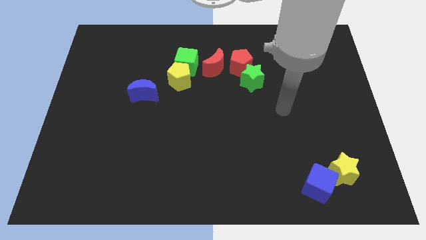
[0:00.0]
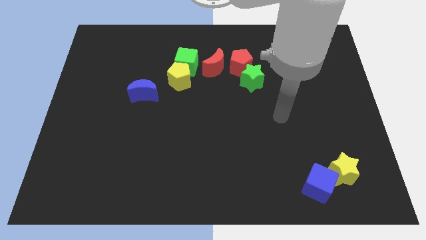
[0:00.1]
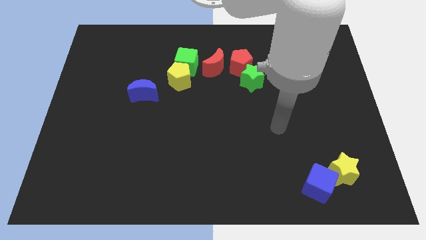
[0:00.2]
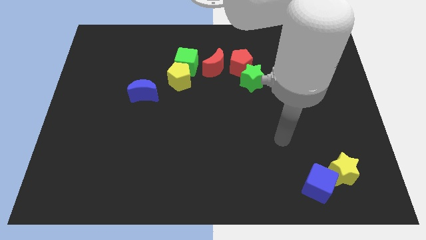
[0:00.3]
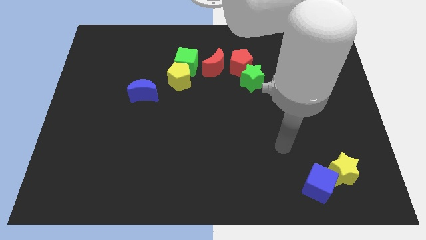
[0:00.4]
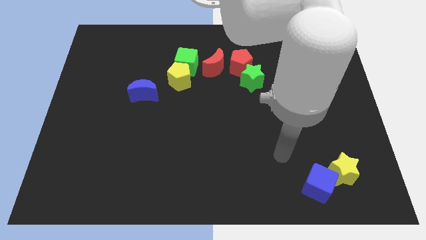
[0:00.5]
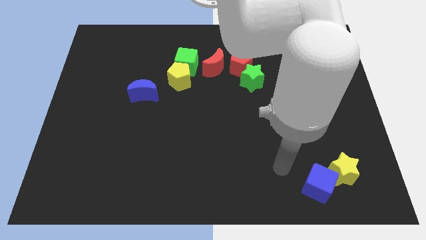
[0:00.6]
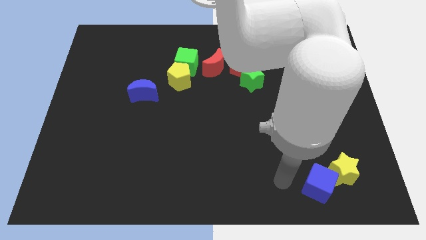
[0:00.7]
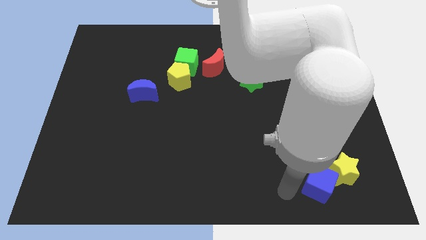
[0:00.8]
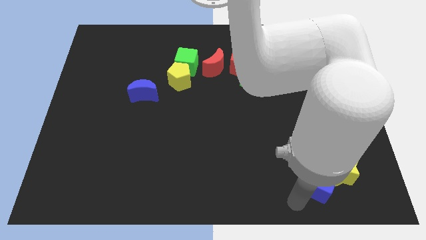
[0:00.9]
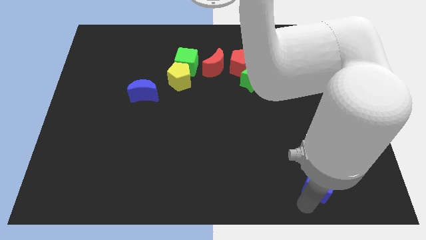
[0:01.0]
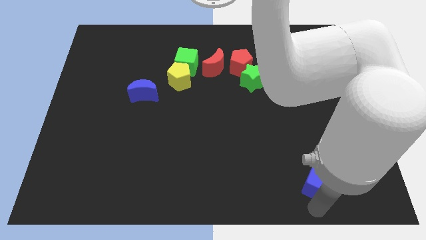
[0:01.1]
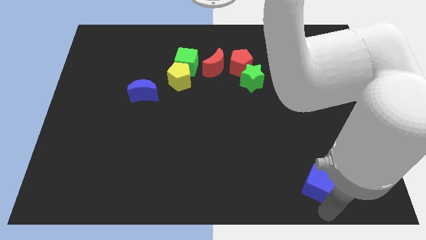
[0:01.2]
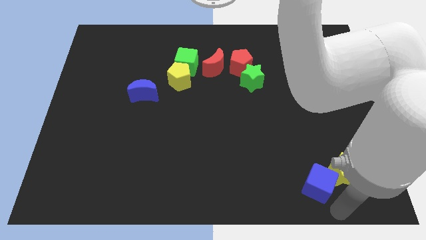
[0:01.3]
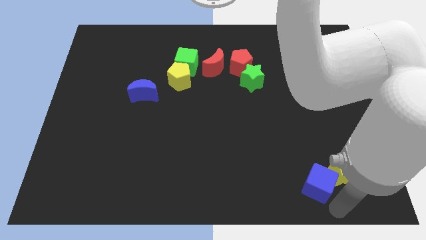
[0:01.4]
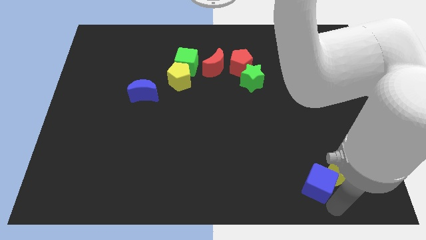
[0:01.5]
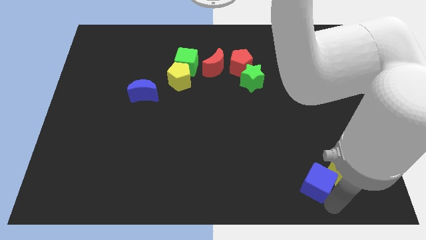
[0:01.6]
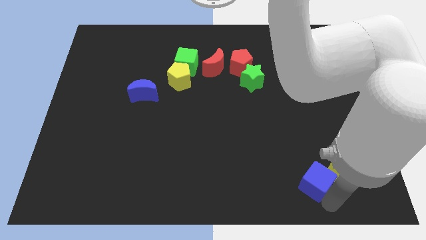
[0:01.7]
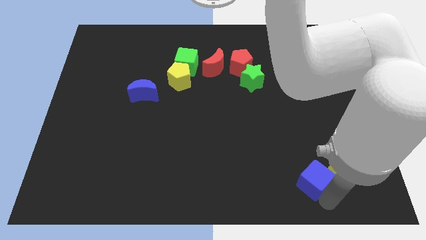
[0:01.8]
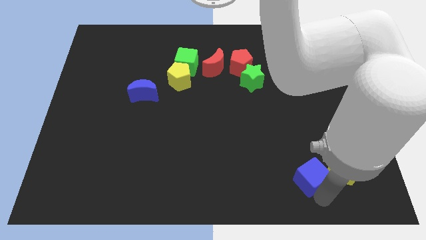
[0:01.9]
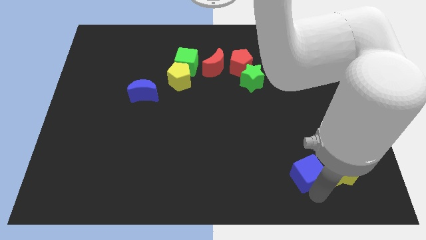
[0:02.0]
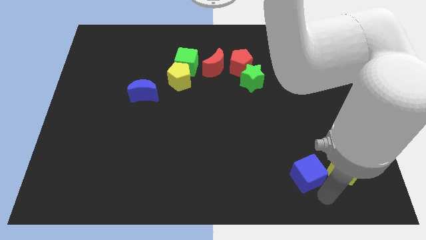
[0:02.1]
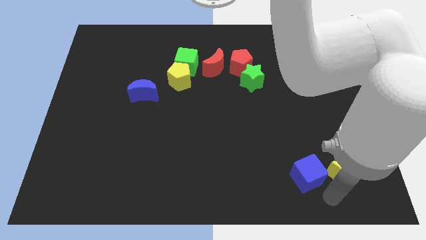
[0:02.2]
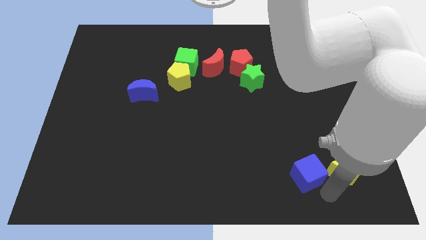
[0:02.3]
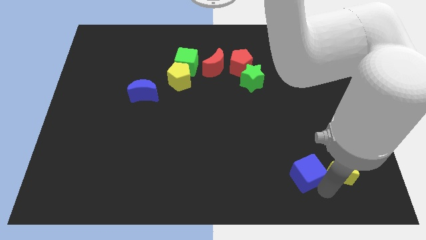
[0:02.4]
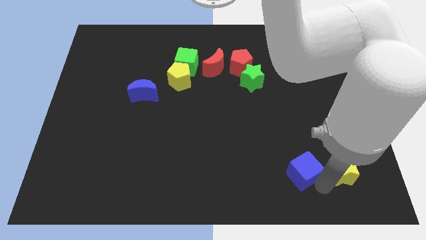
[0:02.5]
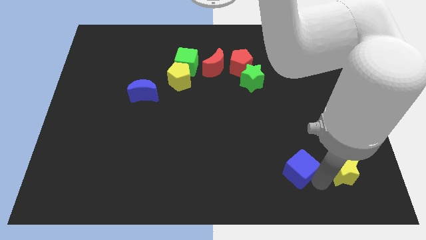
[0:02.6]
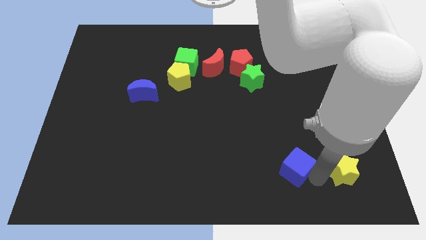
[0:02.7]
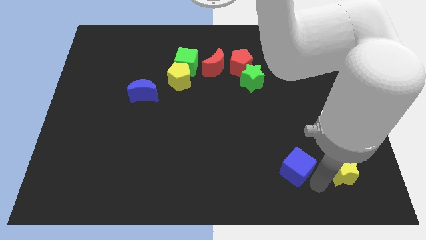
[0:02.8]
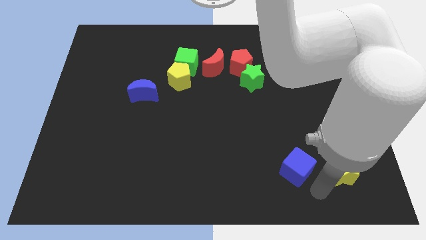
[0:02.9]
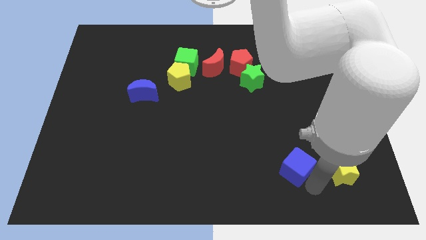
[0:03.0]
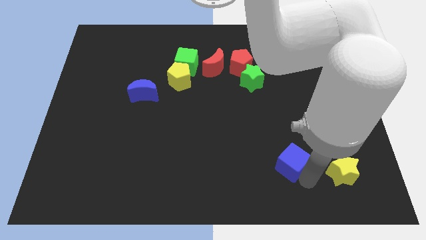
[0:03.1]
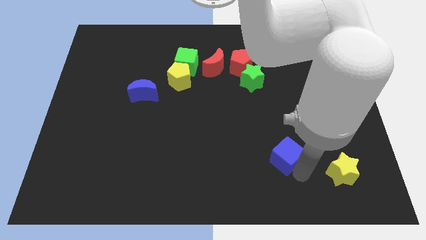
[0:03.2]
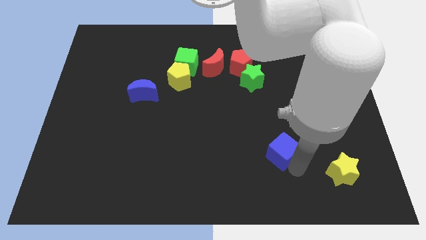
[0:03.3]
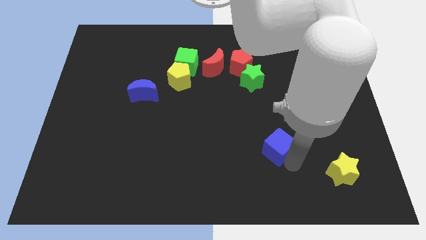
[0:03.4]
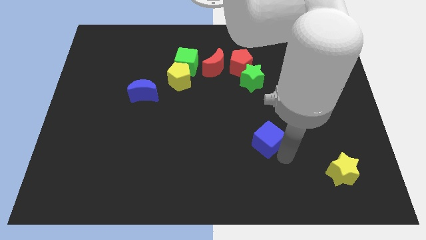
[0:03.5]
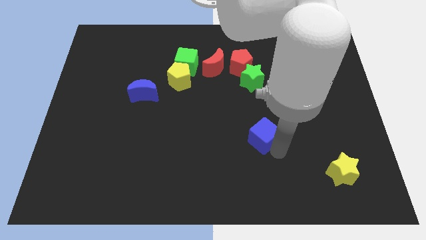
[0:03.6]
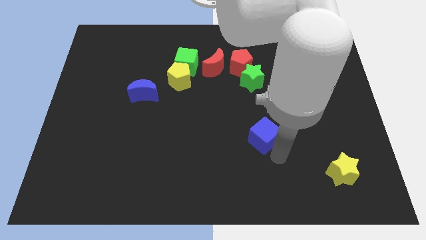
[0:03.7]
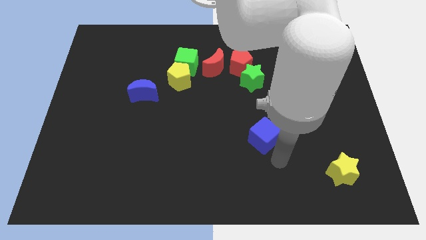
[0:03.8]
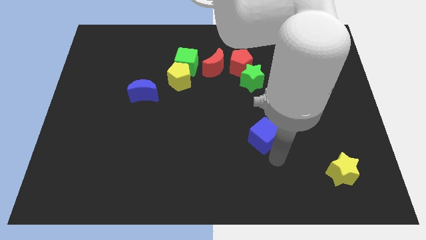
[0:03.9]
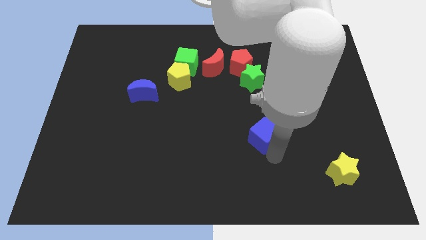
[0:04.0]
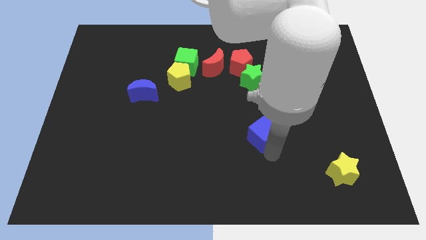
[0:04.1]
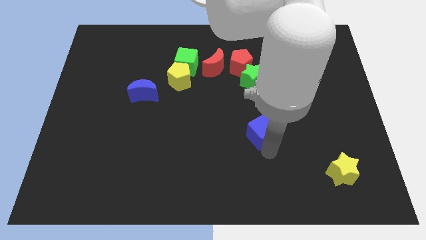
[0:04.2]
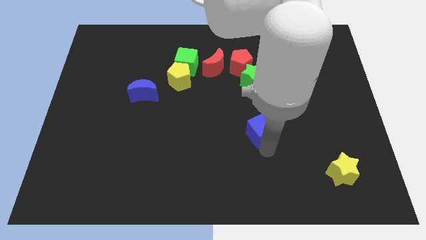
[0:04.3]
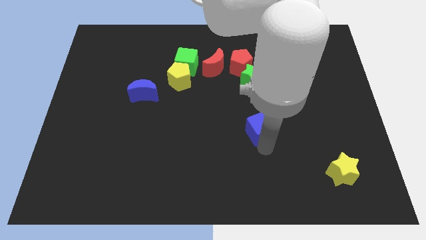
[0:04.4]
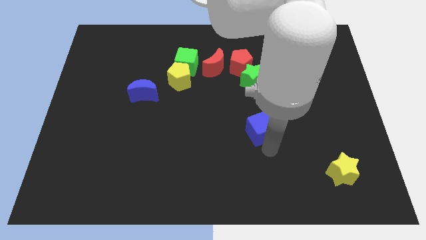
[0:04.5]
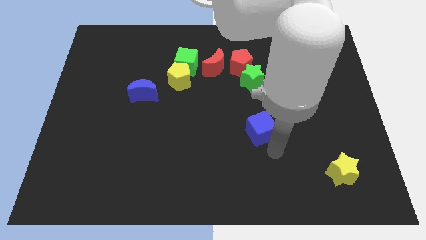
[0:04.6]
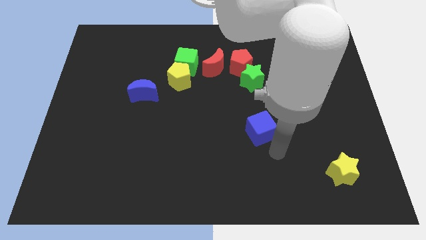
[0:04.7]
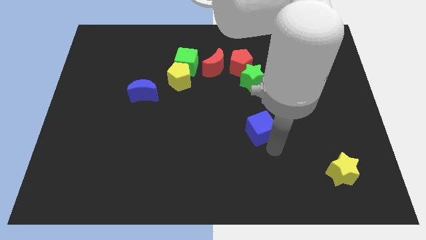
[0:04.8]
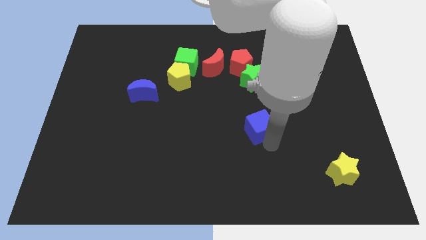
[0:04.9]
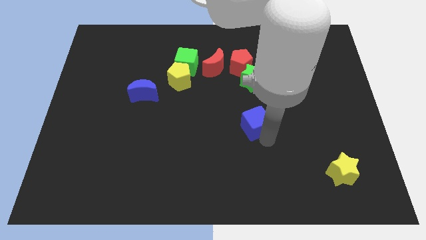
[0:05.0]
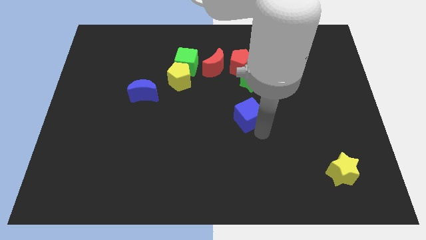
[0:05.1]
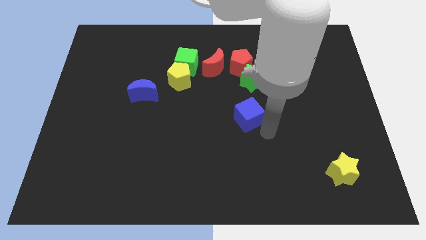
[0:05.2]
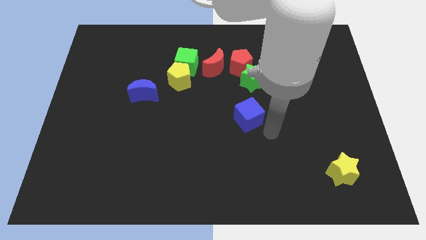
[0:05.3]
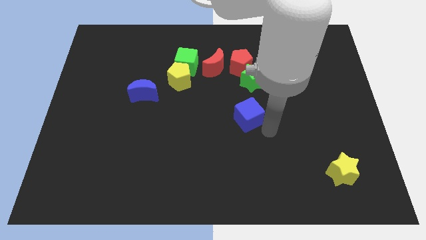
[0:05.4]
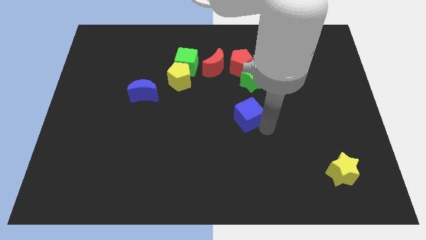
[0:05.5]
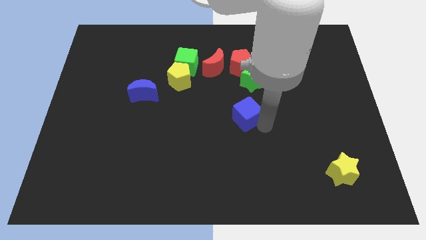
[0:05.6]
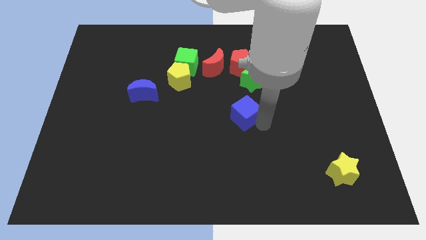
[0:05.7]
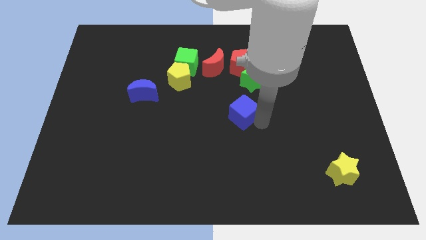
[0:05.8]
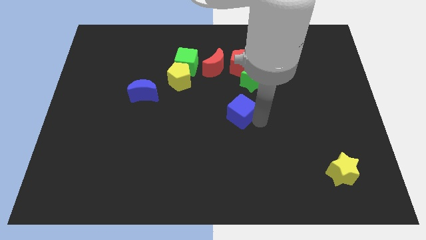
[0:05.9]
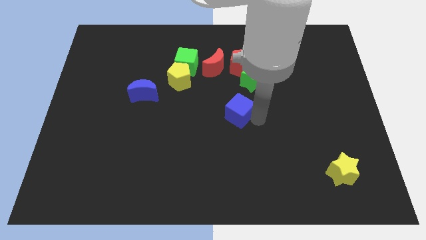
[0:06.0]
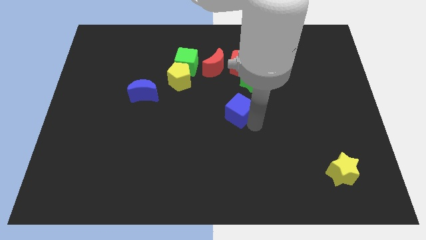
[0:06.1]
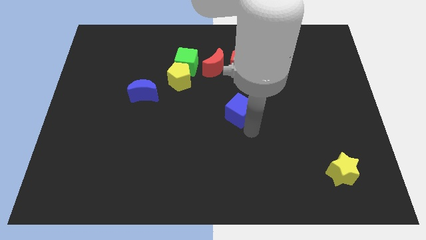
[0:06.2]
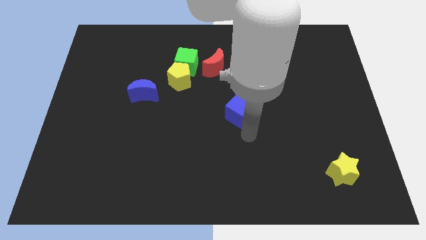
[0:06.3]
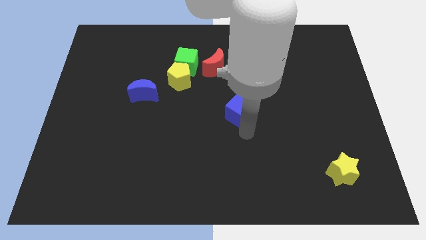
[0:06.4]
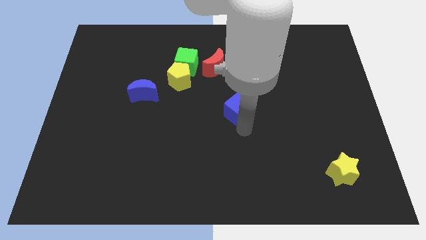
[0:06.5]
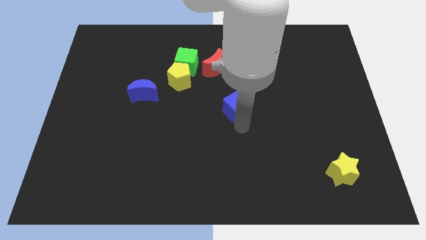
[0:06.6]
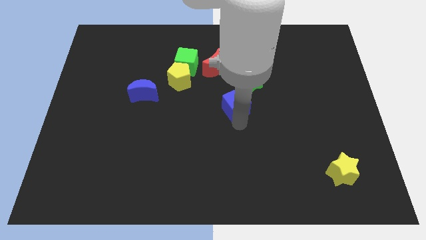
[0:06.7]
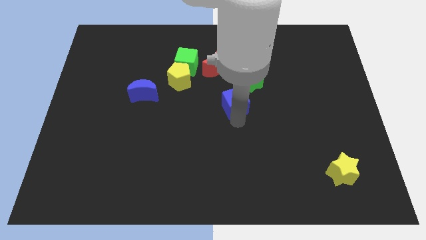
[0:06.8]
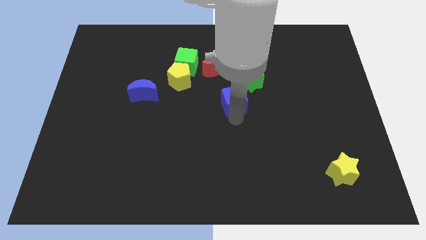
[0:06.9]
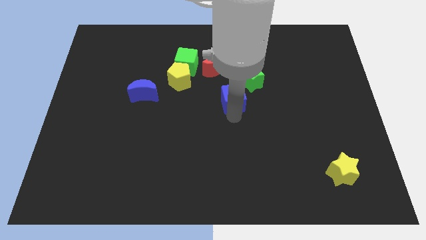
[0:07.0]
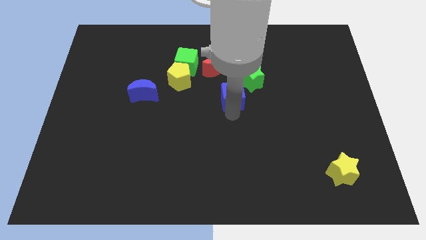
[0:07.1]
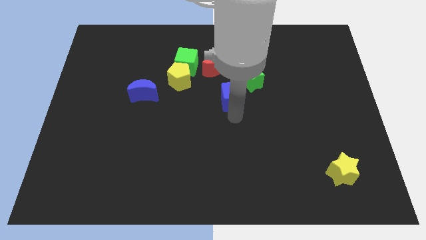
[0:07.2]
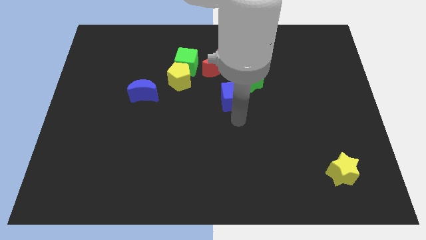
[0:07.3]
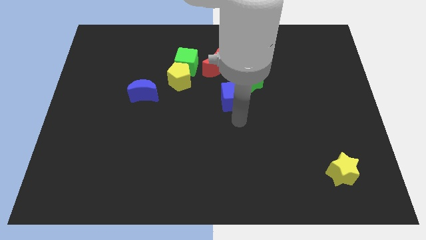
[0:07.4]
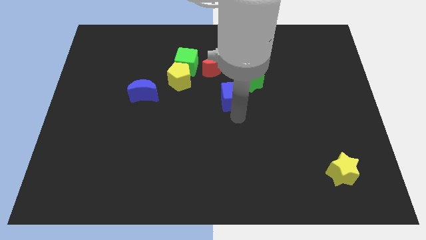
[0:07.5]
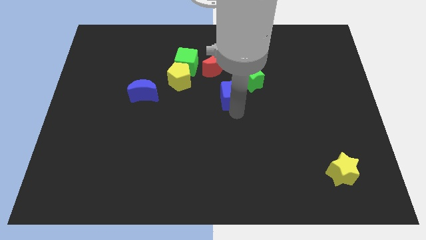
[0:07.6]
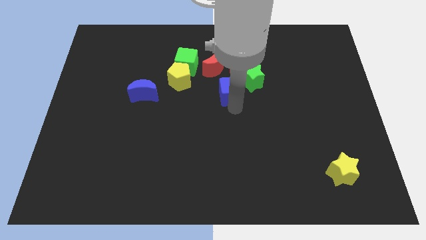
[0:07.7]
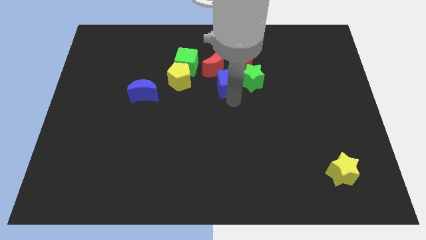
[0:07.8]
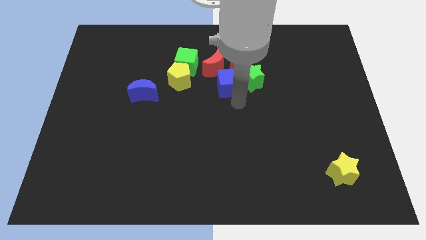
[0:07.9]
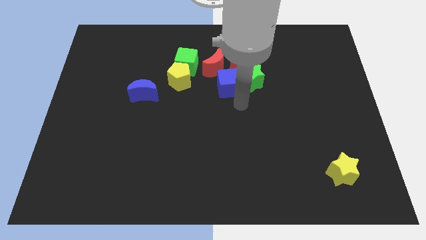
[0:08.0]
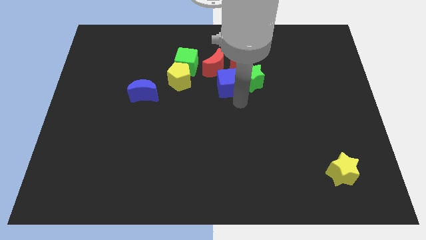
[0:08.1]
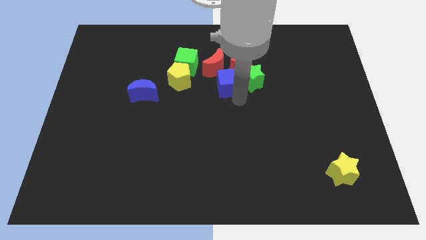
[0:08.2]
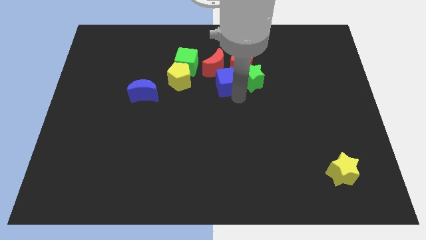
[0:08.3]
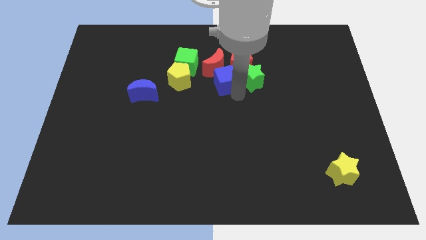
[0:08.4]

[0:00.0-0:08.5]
move the blue cube next to the red moon
